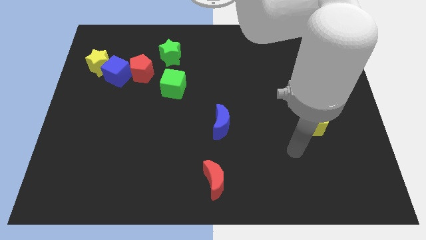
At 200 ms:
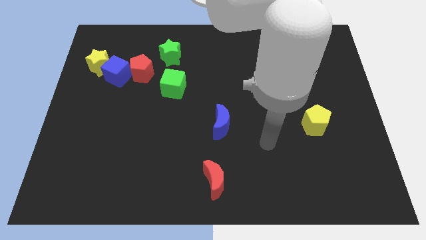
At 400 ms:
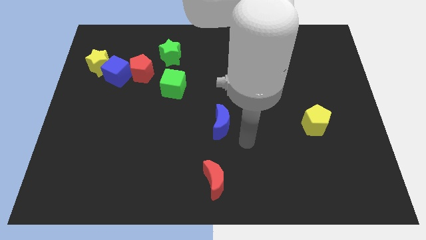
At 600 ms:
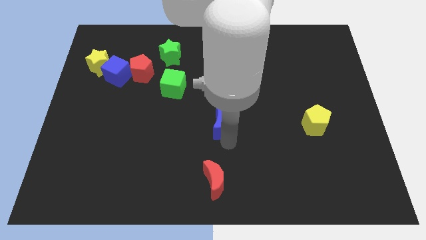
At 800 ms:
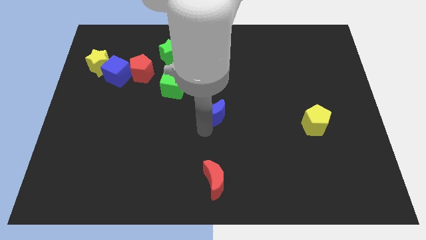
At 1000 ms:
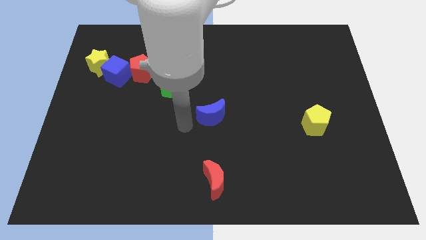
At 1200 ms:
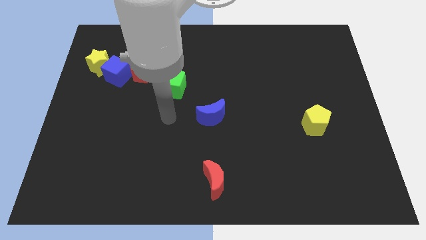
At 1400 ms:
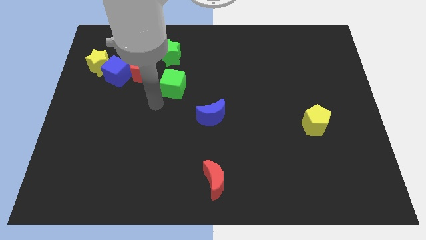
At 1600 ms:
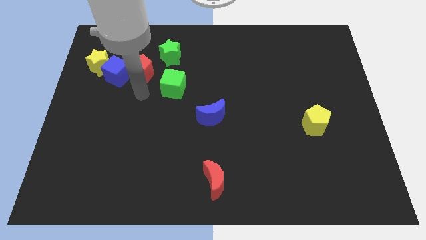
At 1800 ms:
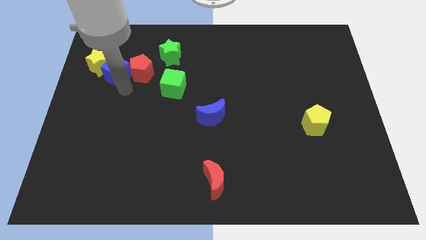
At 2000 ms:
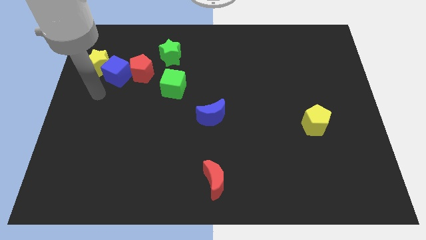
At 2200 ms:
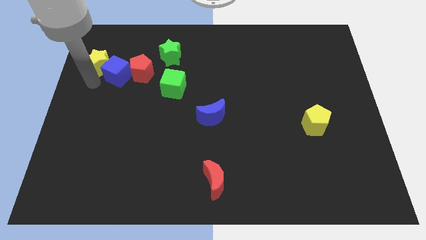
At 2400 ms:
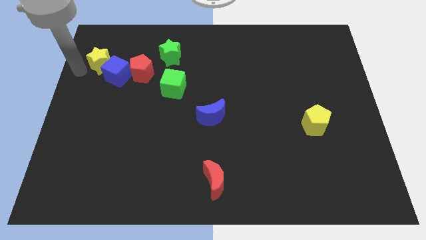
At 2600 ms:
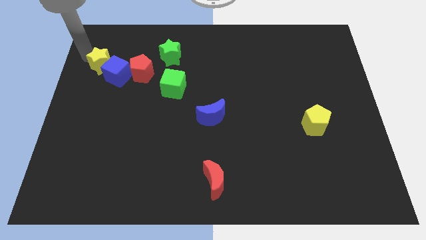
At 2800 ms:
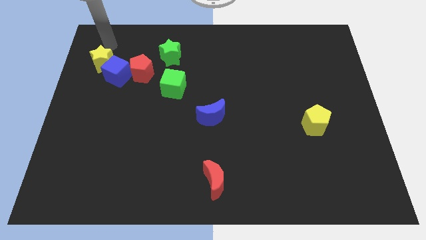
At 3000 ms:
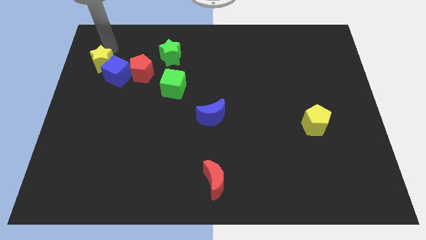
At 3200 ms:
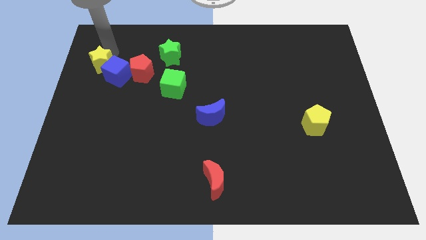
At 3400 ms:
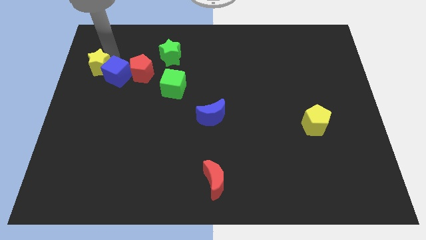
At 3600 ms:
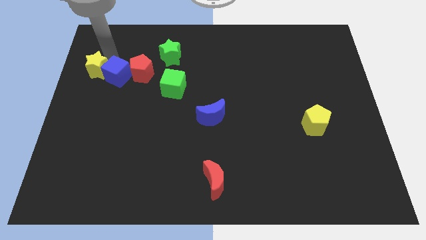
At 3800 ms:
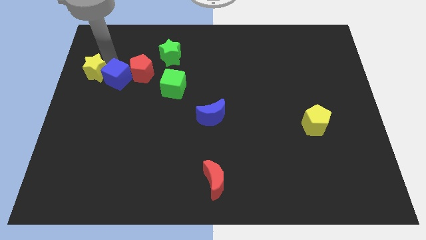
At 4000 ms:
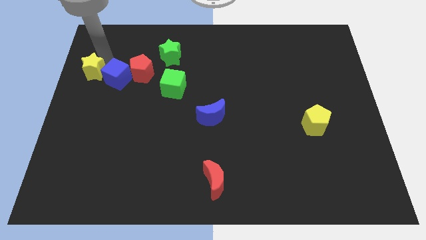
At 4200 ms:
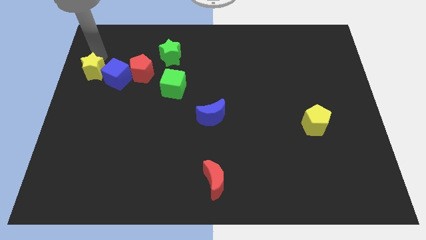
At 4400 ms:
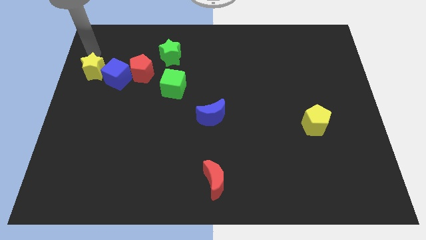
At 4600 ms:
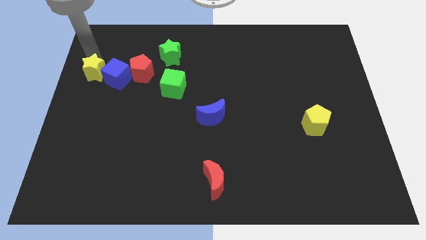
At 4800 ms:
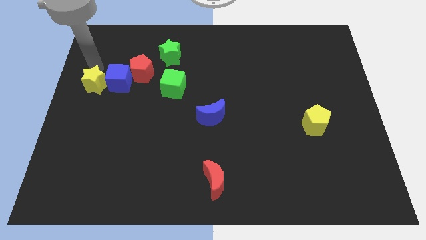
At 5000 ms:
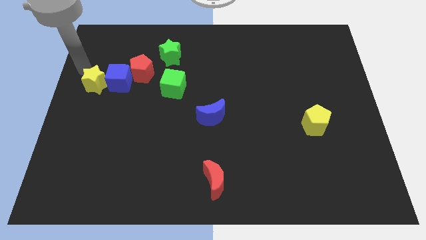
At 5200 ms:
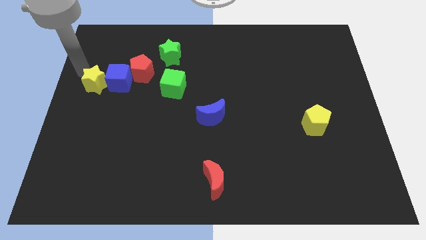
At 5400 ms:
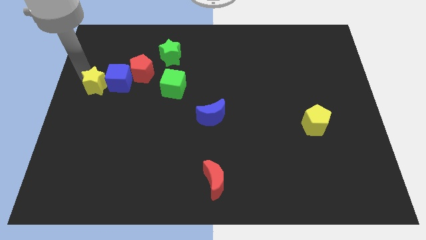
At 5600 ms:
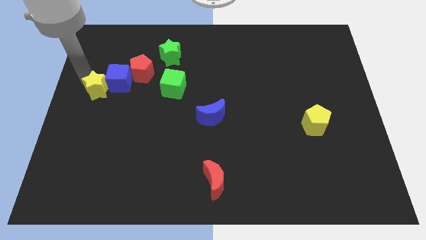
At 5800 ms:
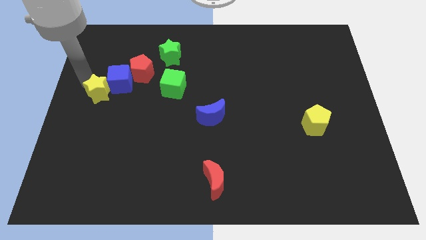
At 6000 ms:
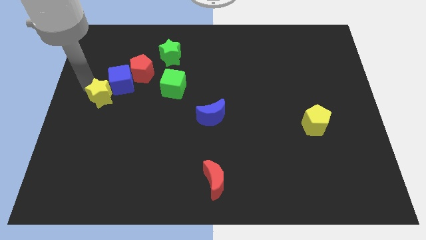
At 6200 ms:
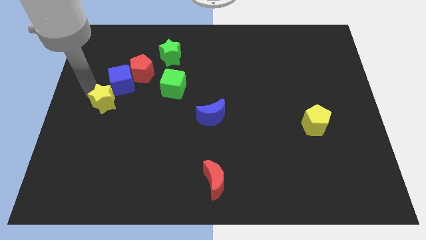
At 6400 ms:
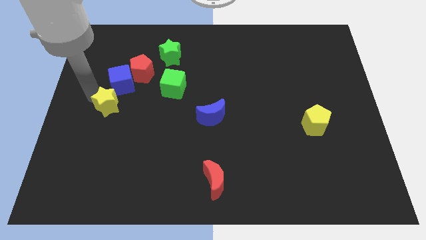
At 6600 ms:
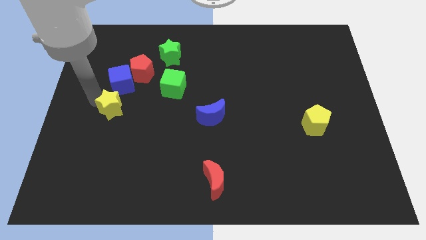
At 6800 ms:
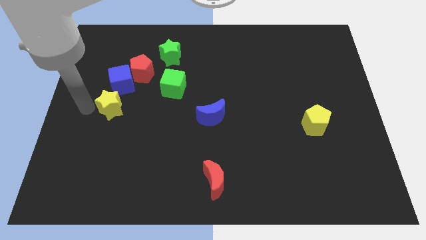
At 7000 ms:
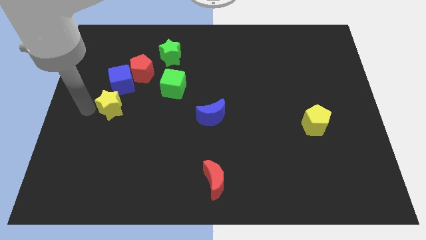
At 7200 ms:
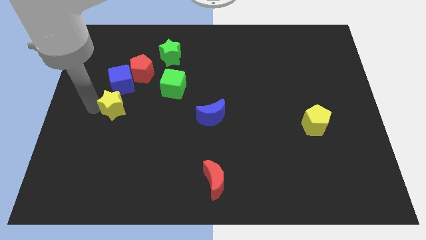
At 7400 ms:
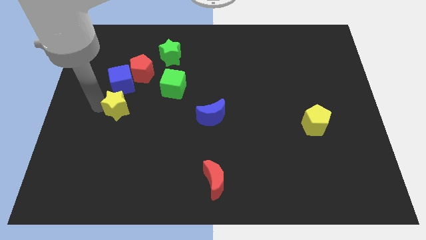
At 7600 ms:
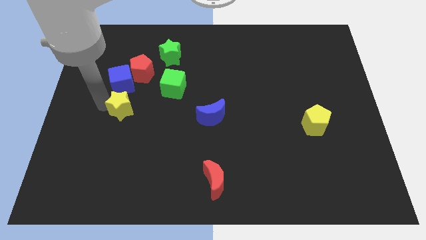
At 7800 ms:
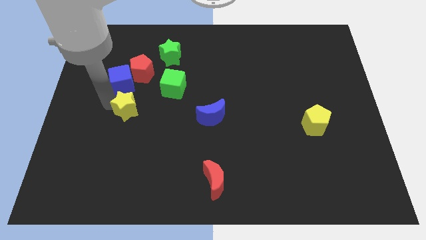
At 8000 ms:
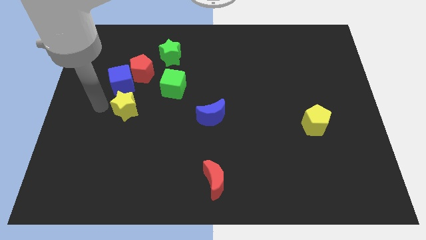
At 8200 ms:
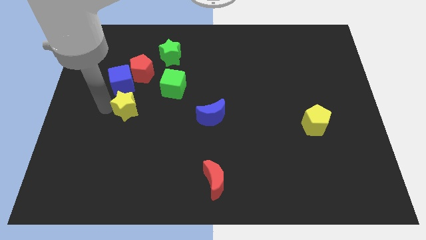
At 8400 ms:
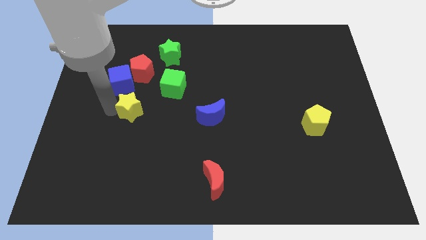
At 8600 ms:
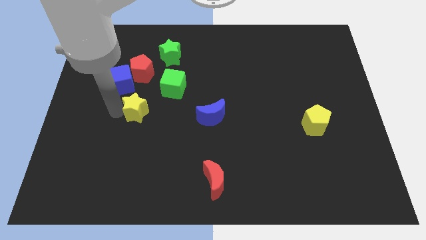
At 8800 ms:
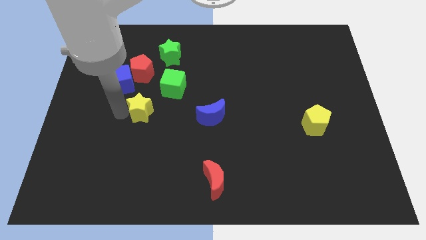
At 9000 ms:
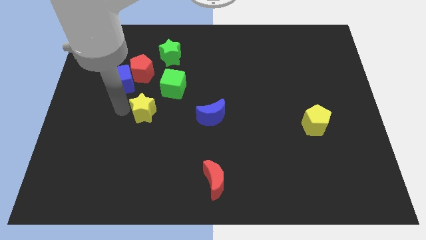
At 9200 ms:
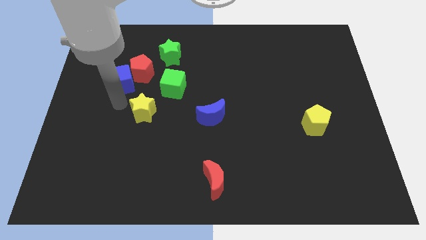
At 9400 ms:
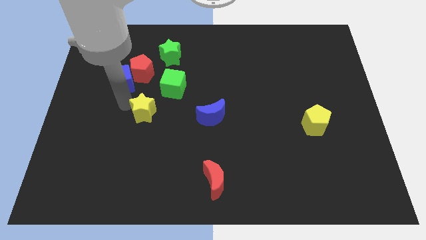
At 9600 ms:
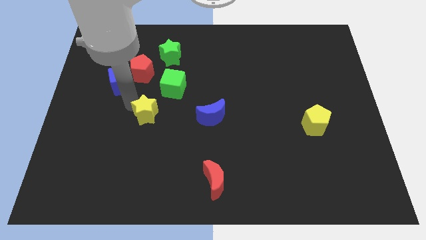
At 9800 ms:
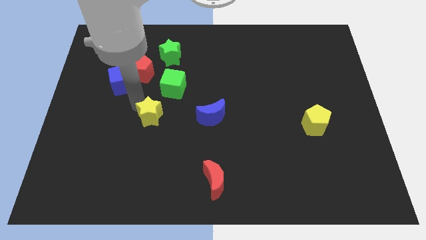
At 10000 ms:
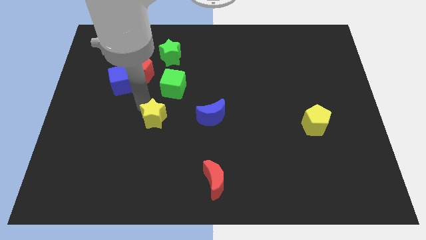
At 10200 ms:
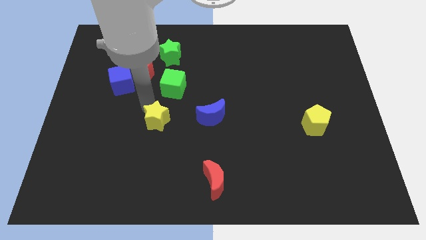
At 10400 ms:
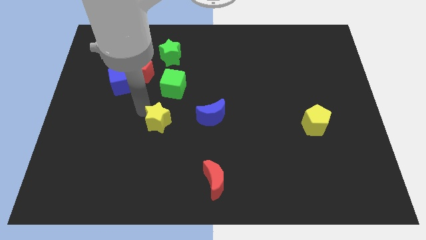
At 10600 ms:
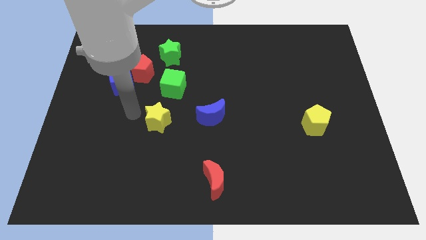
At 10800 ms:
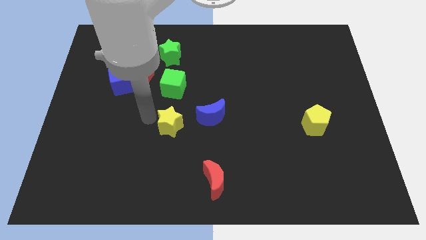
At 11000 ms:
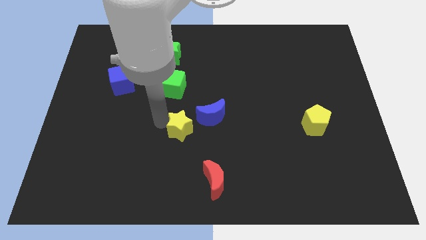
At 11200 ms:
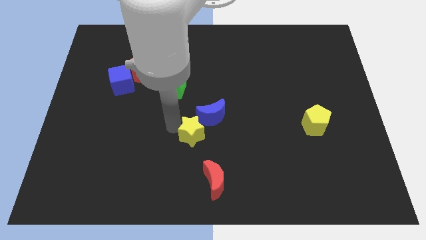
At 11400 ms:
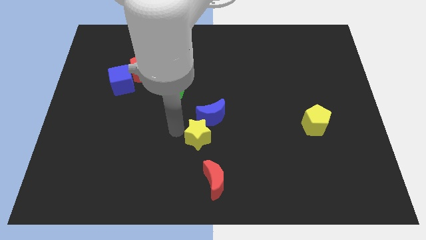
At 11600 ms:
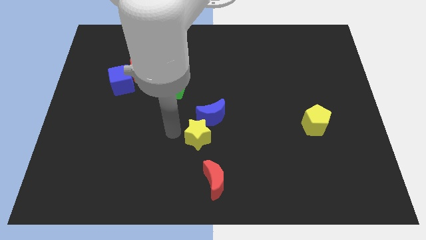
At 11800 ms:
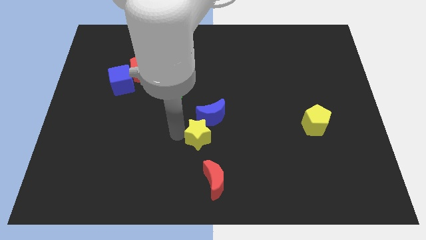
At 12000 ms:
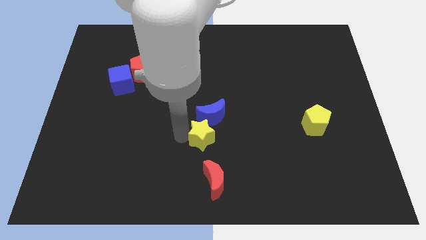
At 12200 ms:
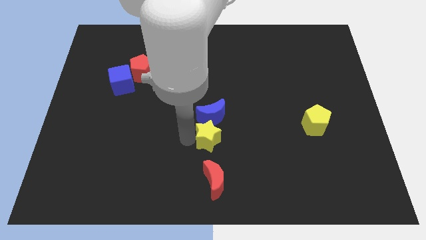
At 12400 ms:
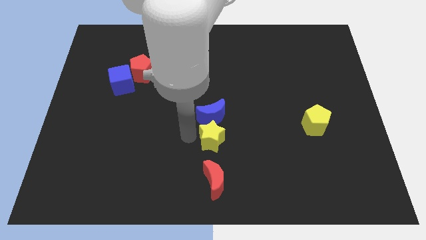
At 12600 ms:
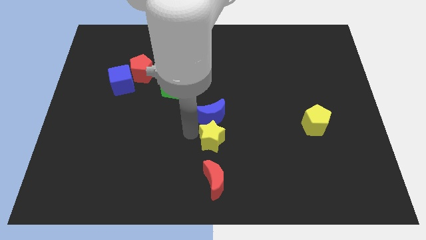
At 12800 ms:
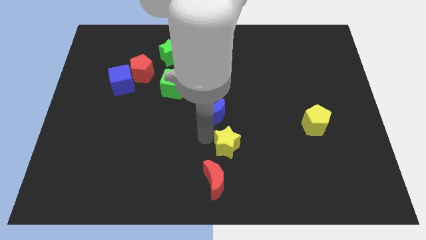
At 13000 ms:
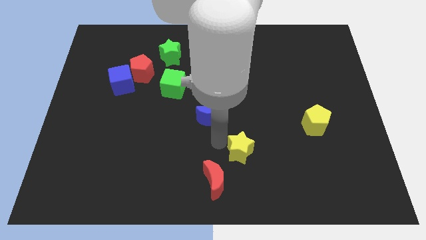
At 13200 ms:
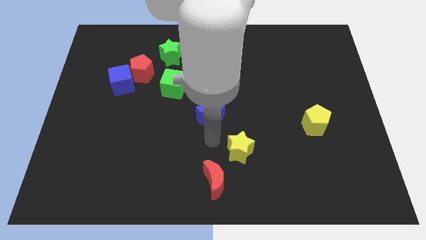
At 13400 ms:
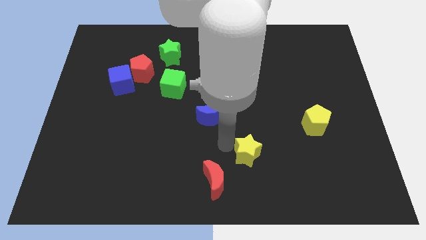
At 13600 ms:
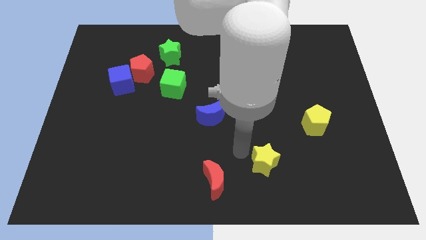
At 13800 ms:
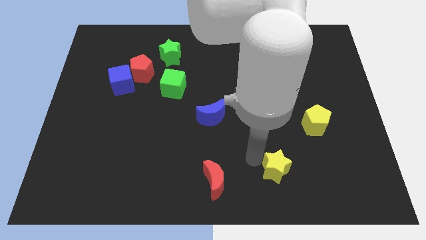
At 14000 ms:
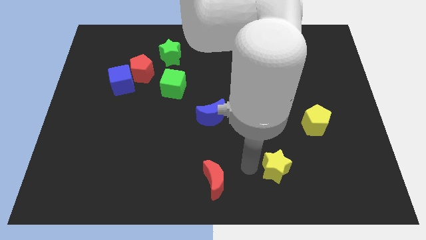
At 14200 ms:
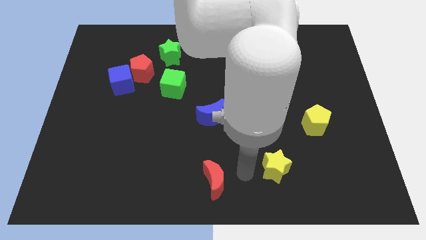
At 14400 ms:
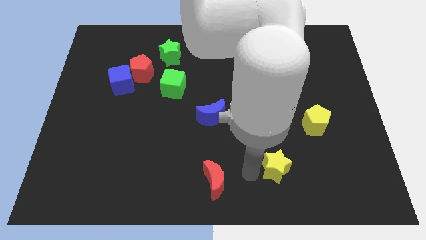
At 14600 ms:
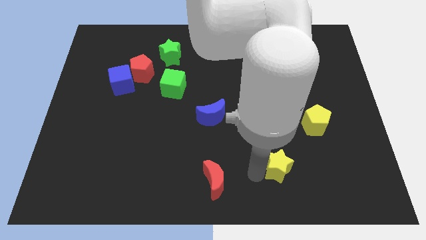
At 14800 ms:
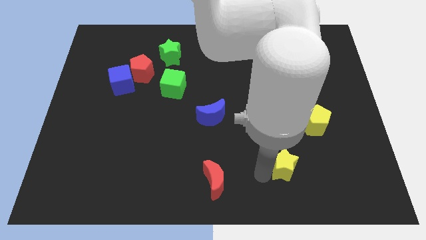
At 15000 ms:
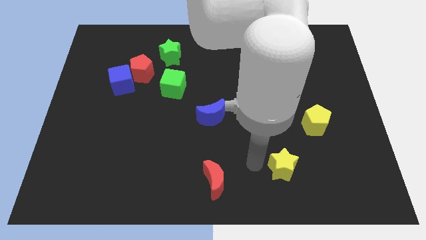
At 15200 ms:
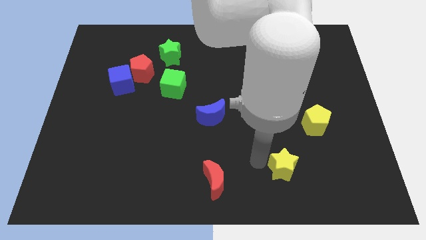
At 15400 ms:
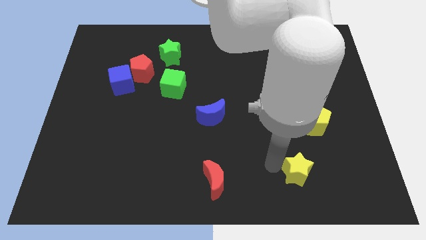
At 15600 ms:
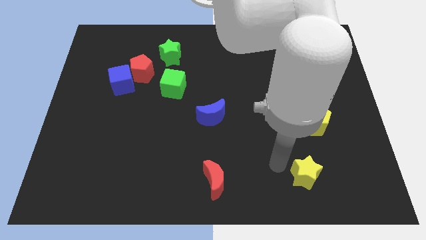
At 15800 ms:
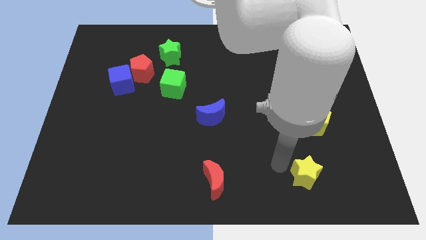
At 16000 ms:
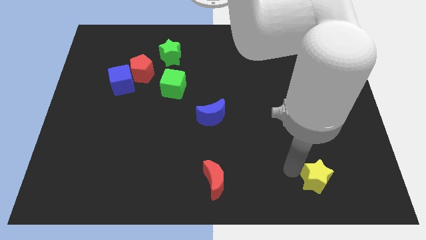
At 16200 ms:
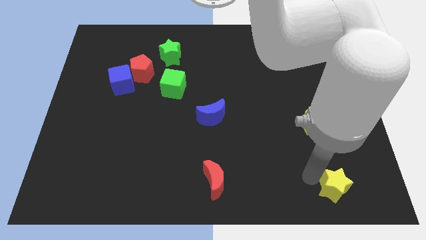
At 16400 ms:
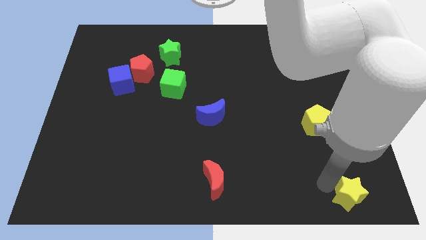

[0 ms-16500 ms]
push the yellow star to the bottom right
